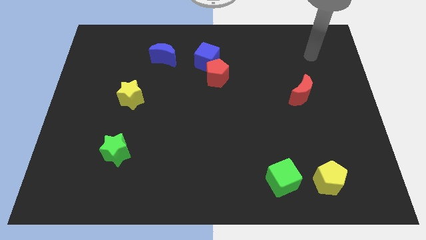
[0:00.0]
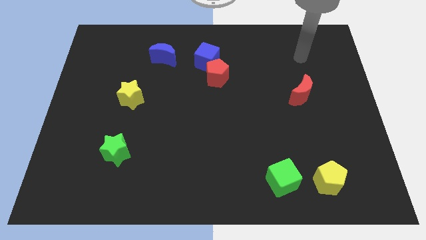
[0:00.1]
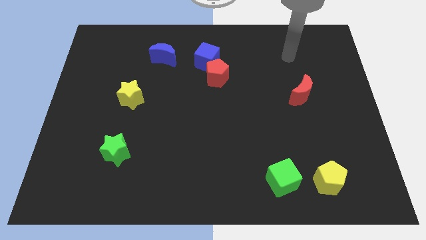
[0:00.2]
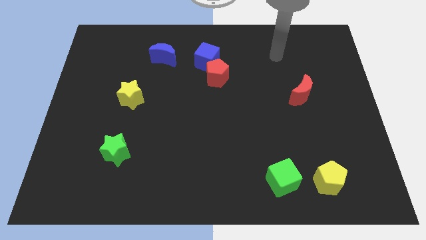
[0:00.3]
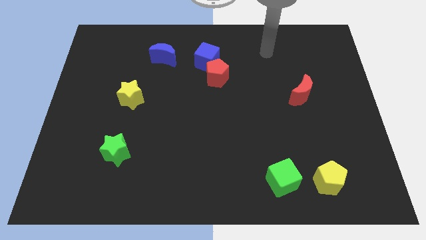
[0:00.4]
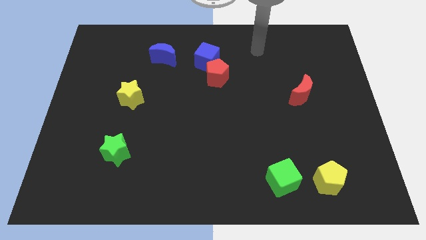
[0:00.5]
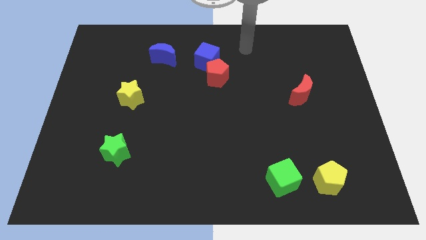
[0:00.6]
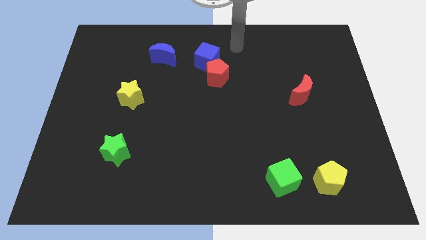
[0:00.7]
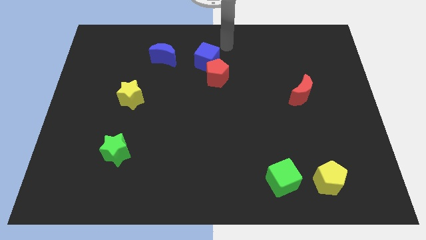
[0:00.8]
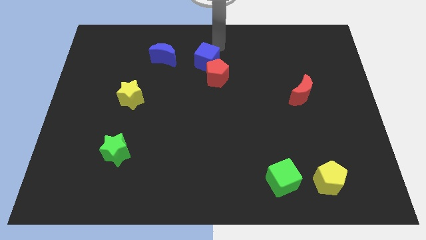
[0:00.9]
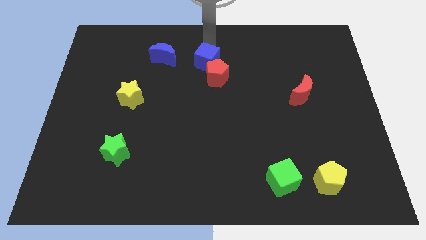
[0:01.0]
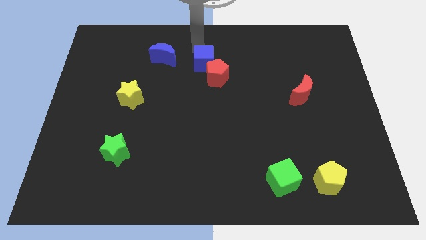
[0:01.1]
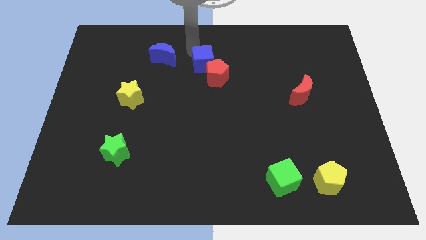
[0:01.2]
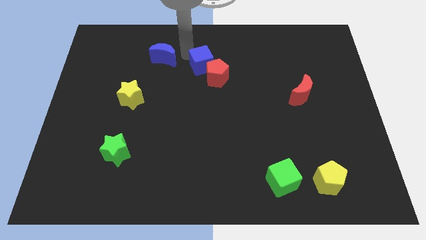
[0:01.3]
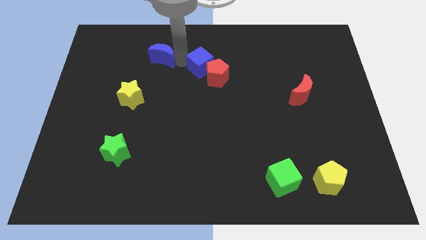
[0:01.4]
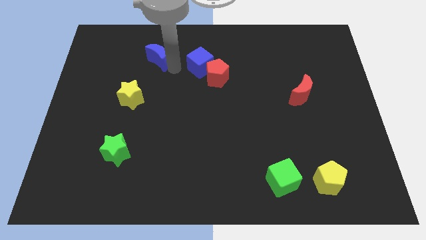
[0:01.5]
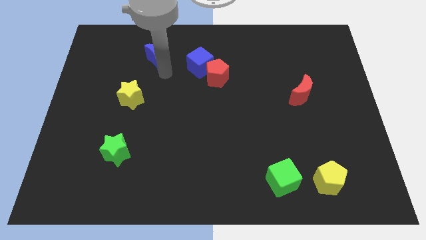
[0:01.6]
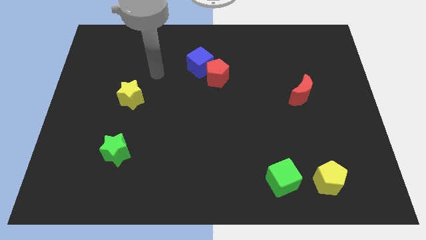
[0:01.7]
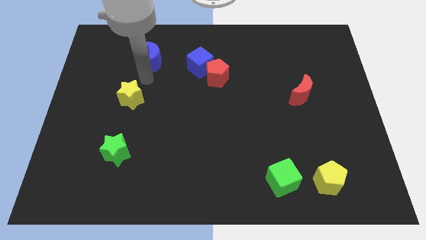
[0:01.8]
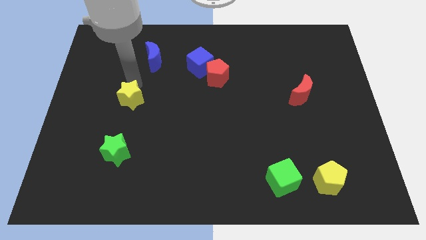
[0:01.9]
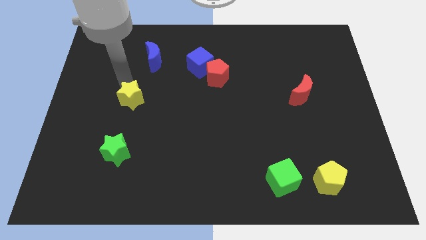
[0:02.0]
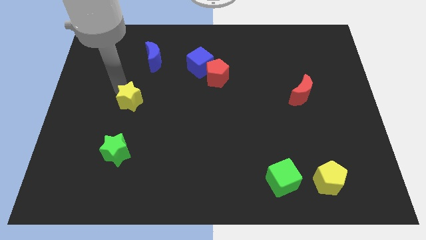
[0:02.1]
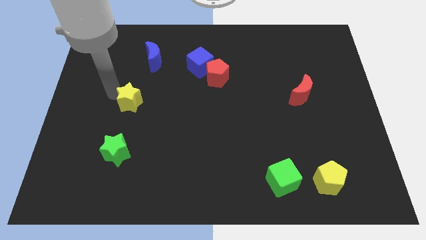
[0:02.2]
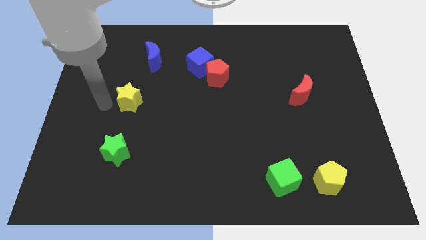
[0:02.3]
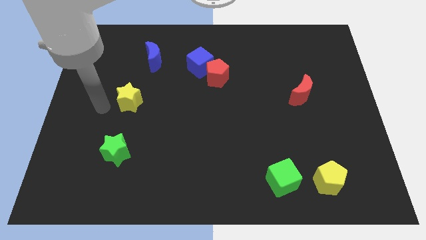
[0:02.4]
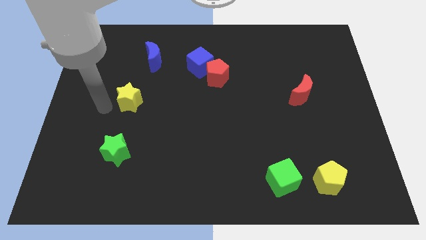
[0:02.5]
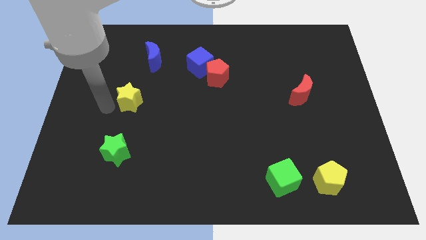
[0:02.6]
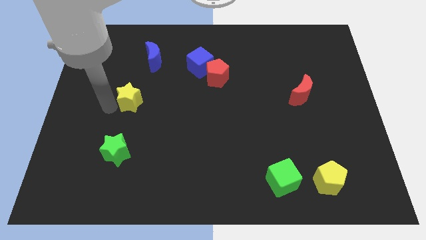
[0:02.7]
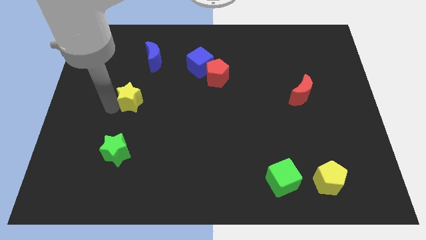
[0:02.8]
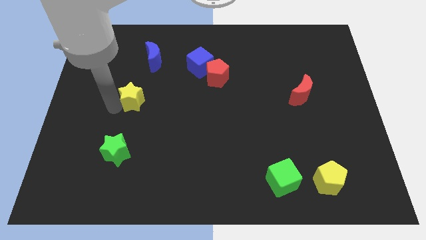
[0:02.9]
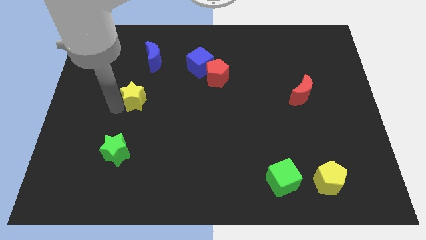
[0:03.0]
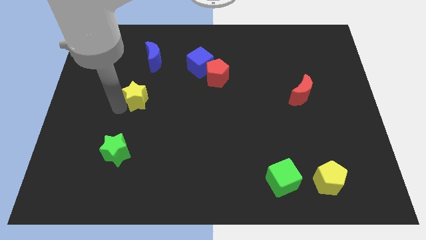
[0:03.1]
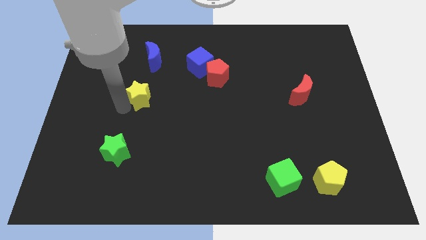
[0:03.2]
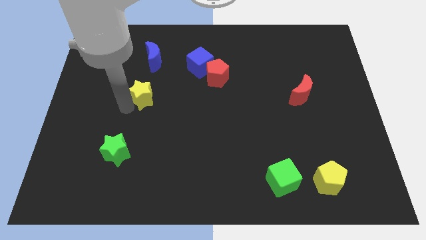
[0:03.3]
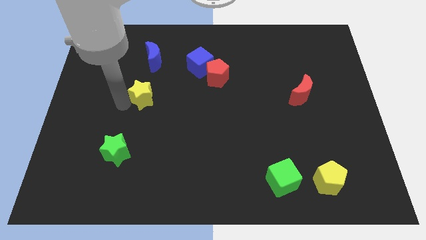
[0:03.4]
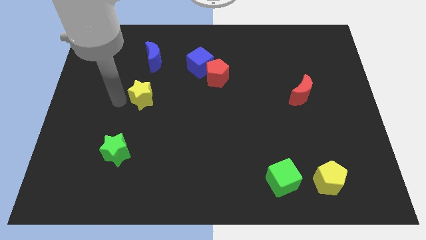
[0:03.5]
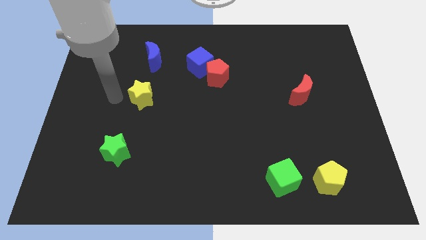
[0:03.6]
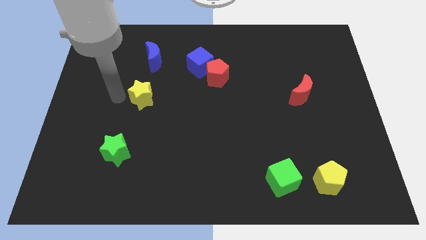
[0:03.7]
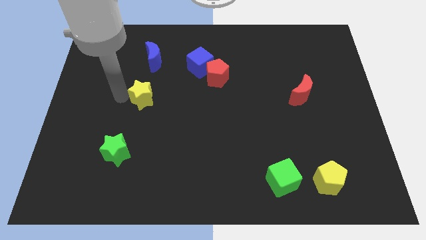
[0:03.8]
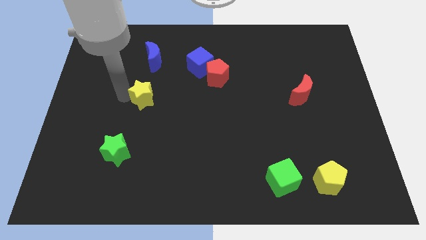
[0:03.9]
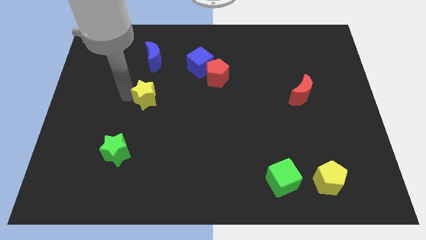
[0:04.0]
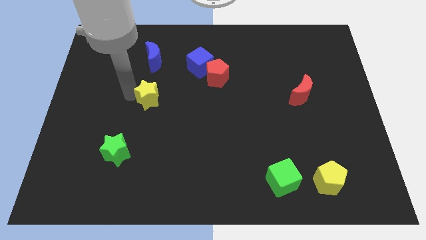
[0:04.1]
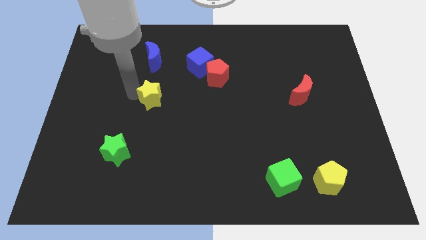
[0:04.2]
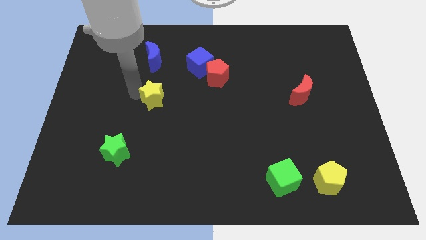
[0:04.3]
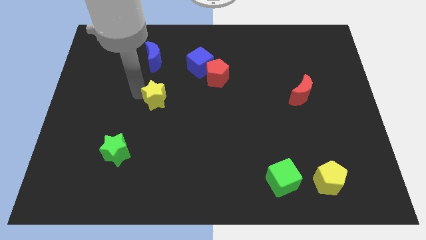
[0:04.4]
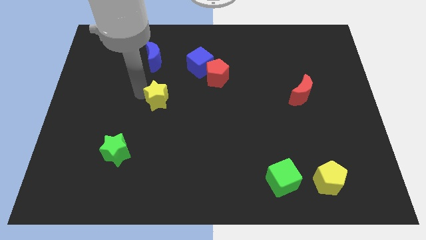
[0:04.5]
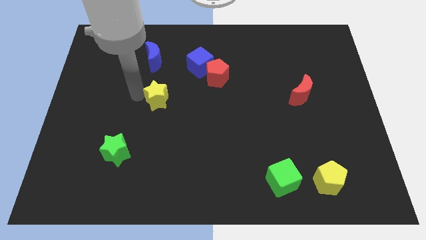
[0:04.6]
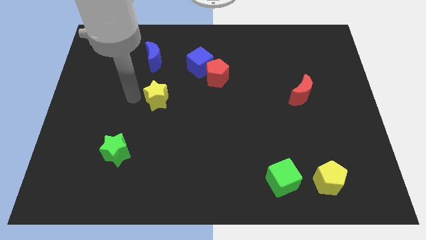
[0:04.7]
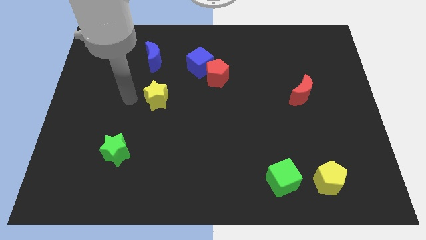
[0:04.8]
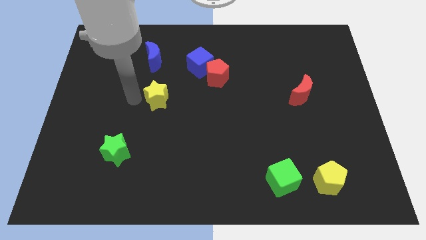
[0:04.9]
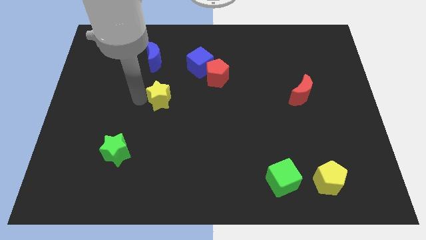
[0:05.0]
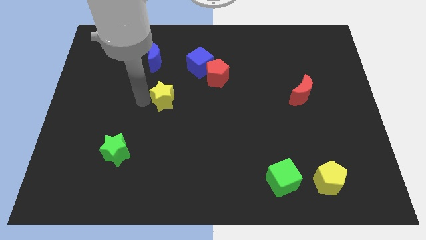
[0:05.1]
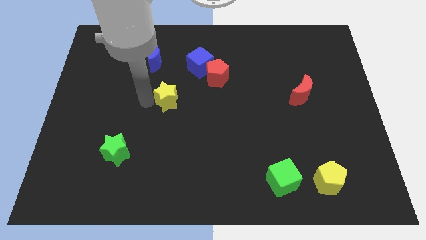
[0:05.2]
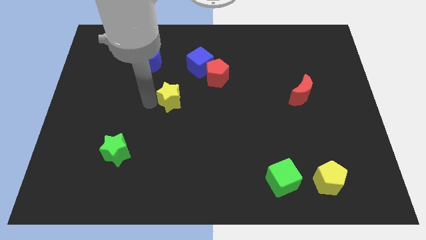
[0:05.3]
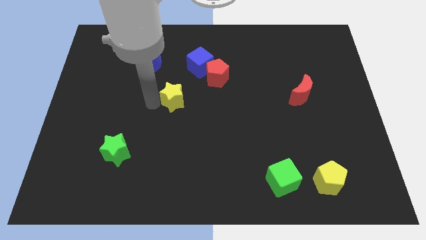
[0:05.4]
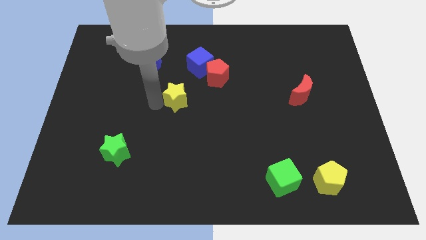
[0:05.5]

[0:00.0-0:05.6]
put the yellow star diagonally down and to the left of the red pentagon

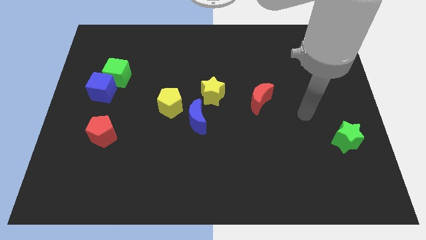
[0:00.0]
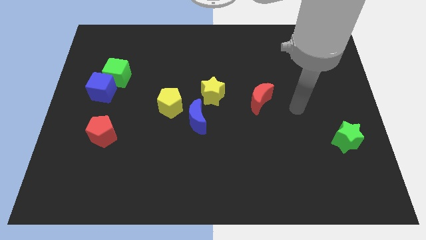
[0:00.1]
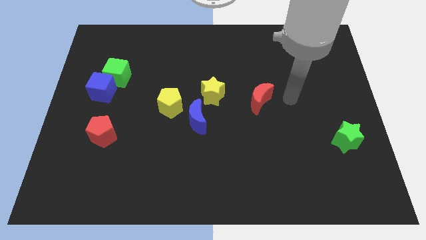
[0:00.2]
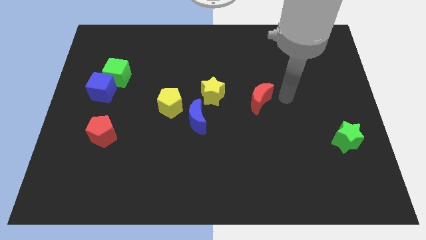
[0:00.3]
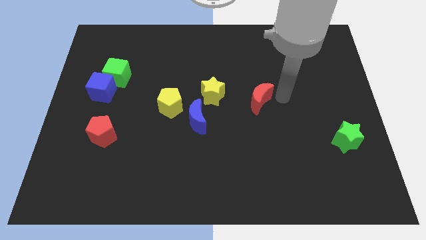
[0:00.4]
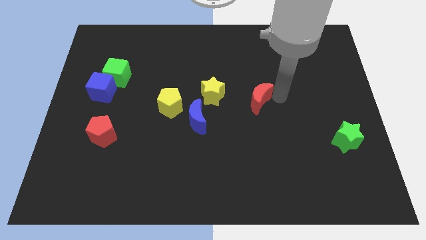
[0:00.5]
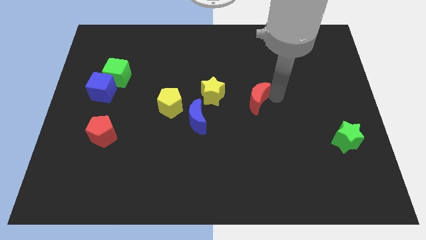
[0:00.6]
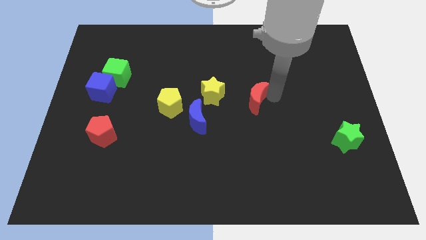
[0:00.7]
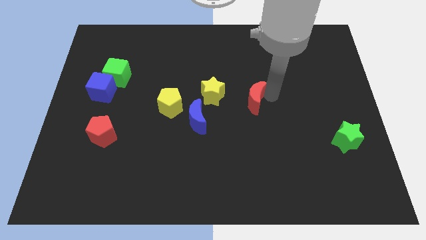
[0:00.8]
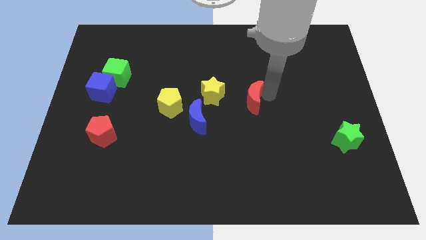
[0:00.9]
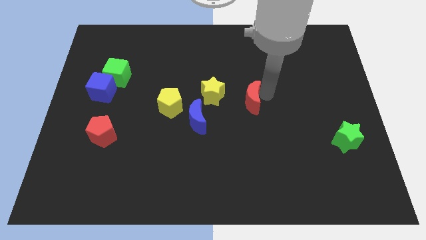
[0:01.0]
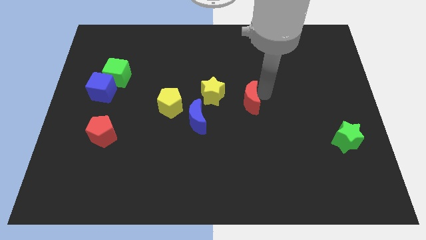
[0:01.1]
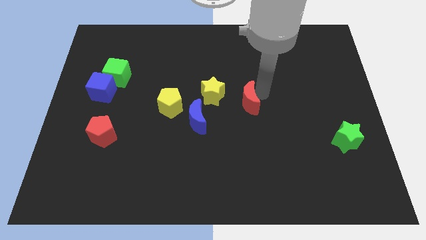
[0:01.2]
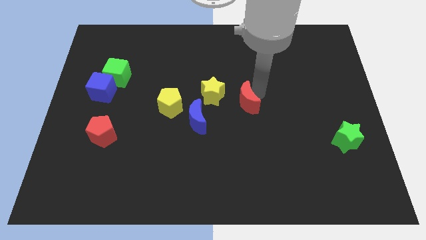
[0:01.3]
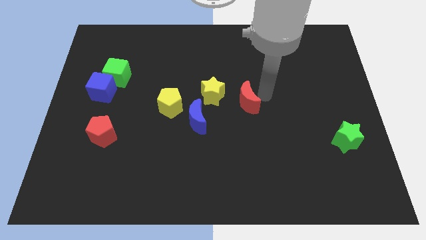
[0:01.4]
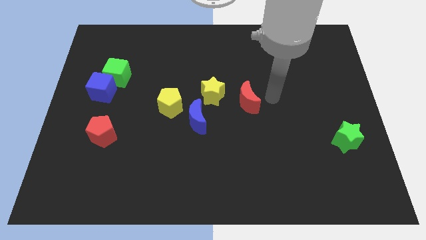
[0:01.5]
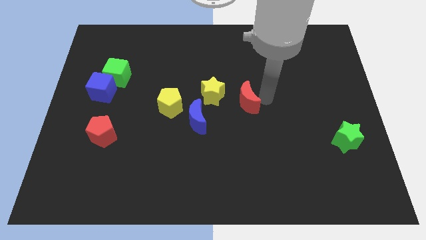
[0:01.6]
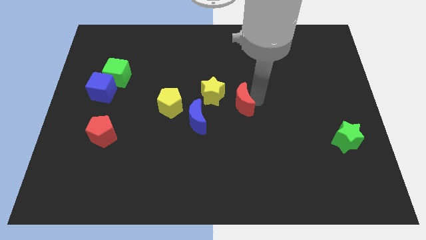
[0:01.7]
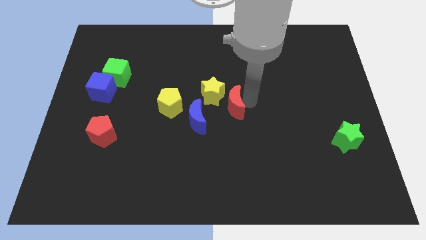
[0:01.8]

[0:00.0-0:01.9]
move the red moon just right of the yellow pentagon

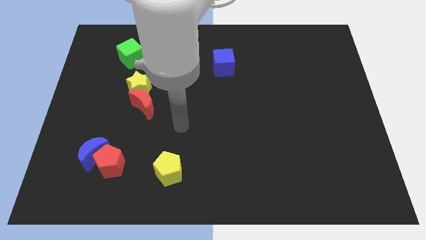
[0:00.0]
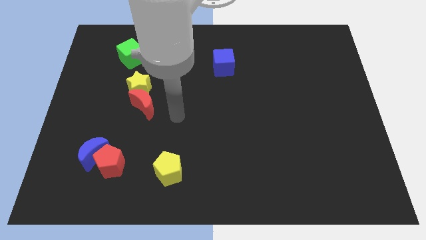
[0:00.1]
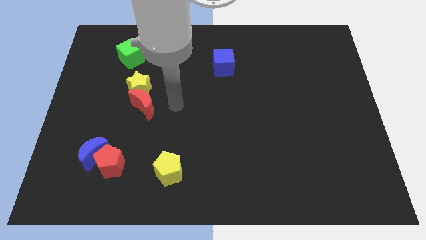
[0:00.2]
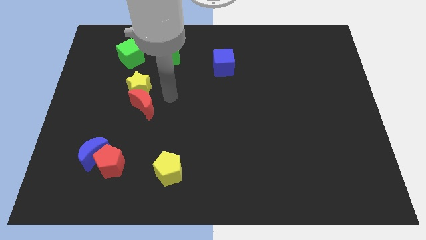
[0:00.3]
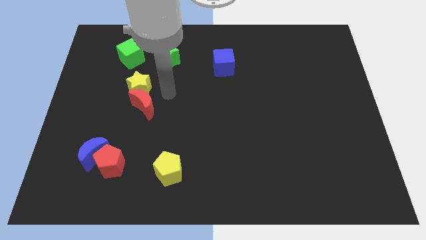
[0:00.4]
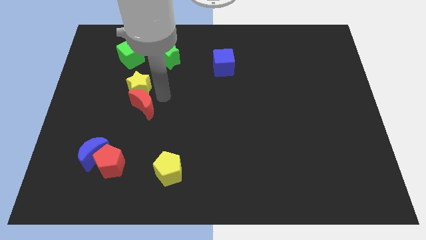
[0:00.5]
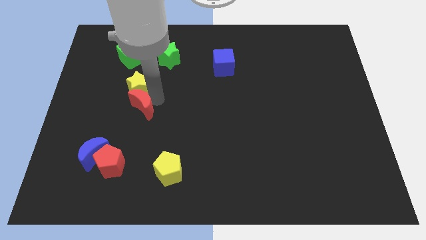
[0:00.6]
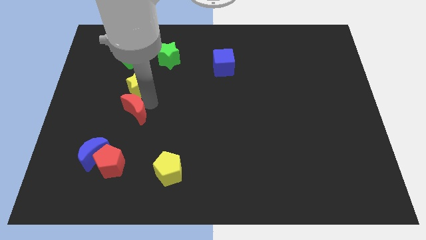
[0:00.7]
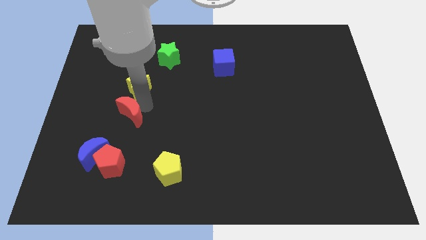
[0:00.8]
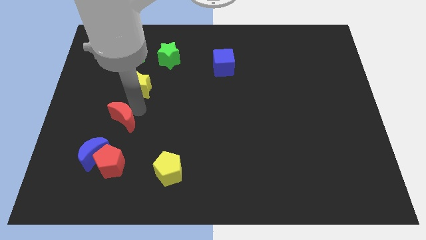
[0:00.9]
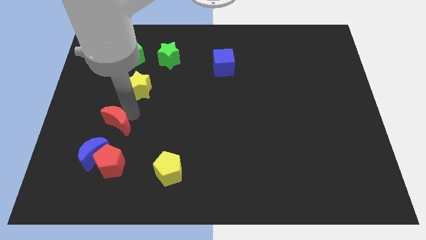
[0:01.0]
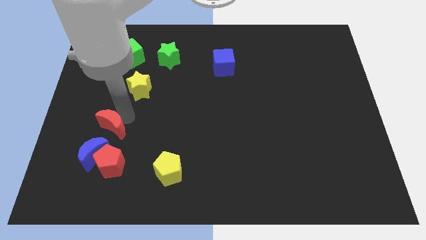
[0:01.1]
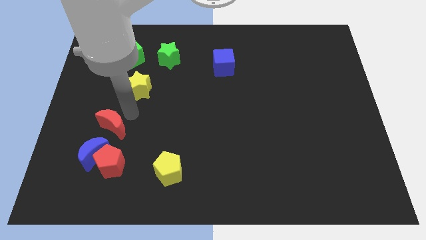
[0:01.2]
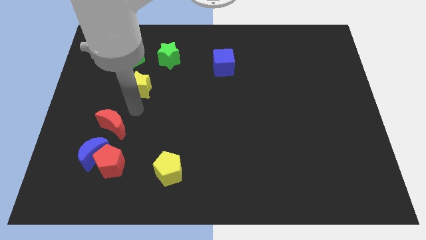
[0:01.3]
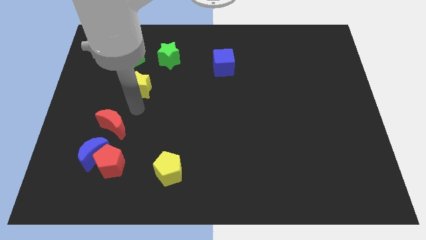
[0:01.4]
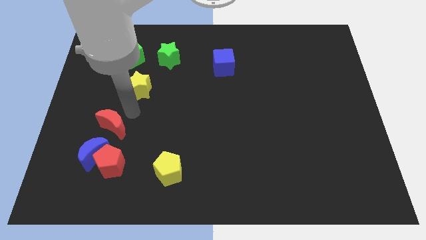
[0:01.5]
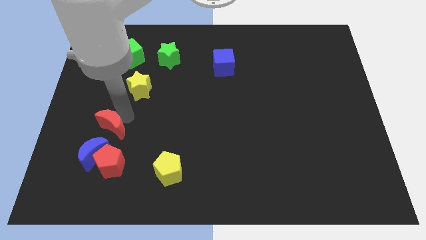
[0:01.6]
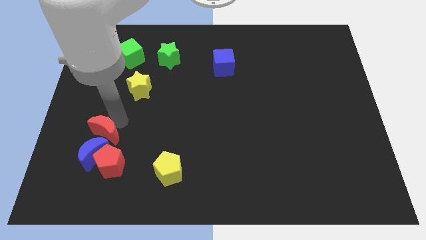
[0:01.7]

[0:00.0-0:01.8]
put the red moon to the top left of the red pentagon
